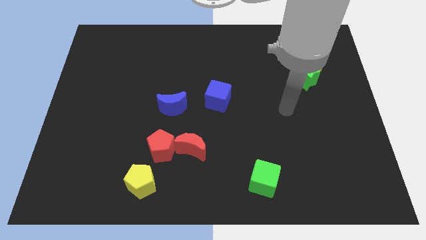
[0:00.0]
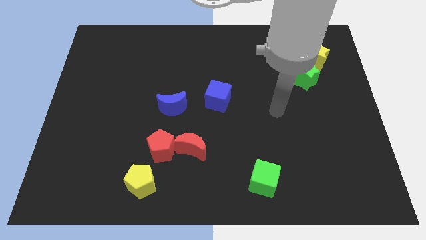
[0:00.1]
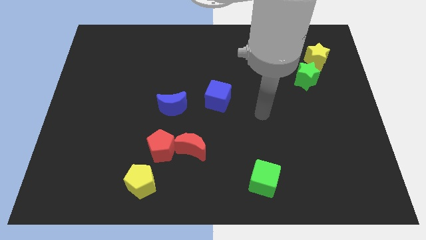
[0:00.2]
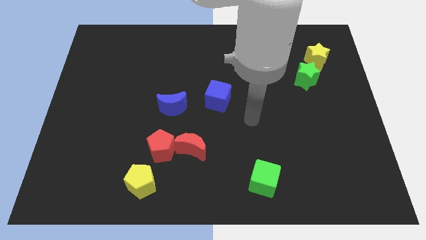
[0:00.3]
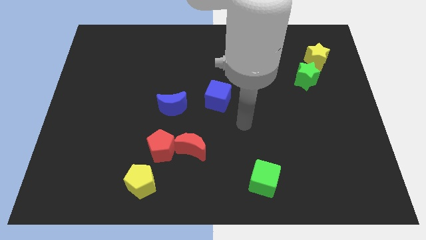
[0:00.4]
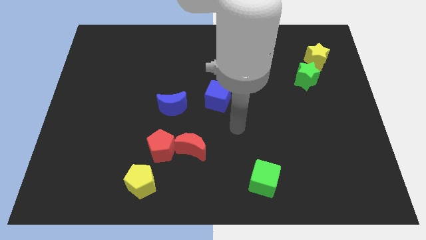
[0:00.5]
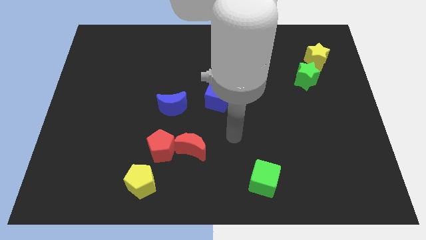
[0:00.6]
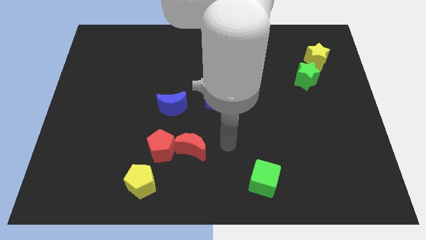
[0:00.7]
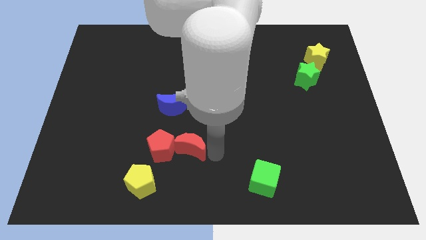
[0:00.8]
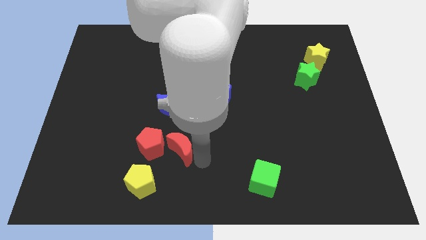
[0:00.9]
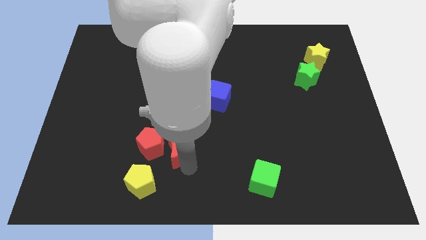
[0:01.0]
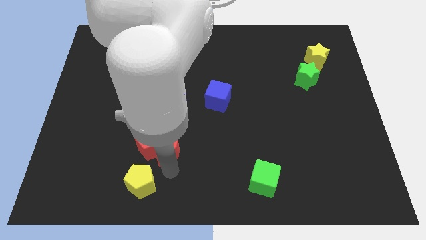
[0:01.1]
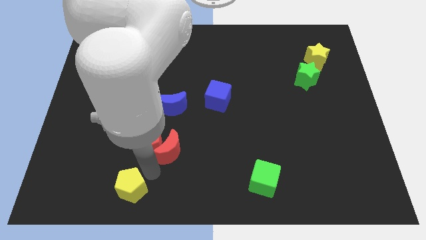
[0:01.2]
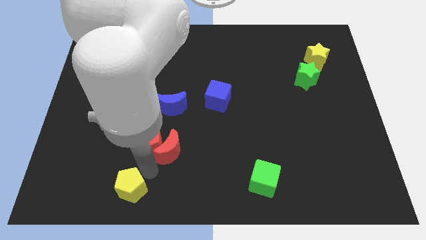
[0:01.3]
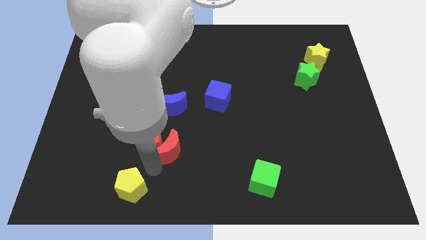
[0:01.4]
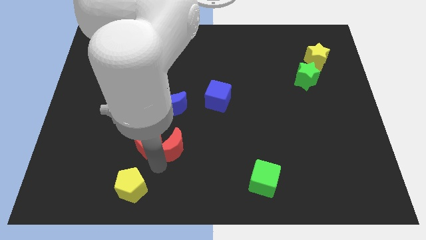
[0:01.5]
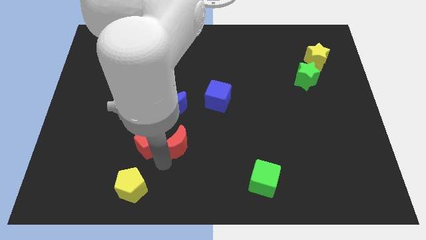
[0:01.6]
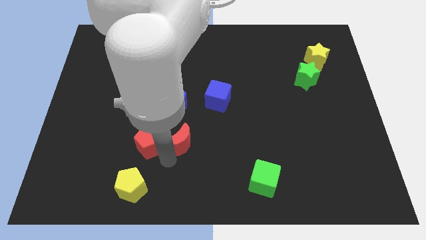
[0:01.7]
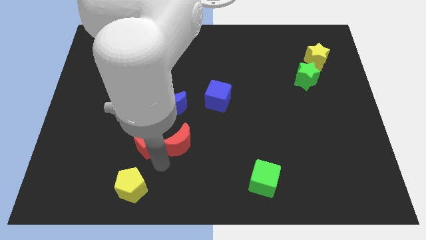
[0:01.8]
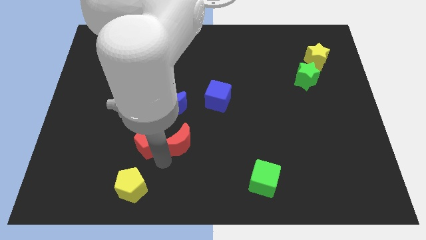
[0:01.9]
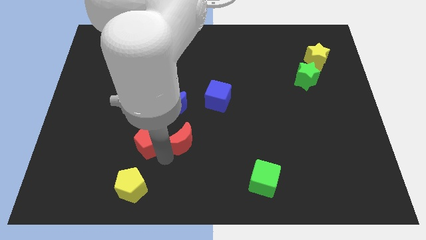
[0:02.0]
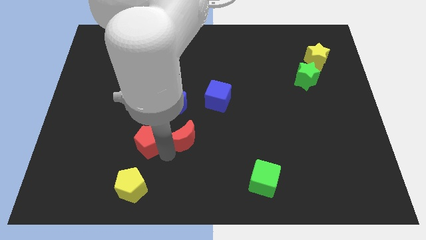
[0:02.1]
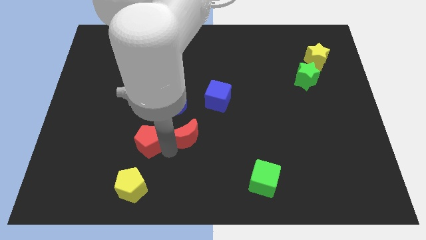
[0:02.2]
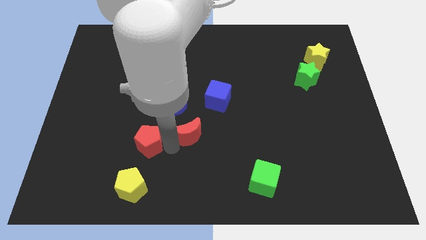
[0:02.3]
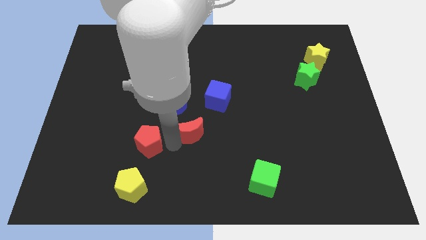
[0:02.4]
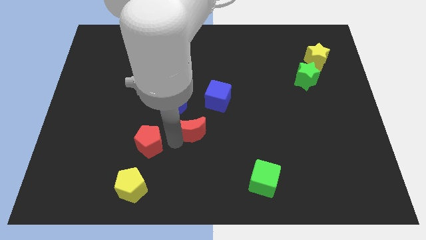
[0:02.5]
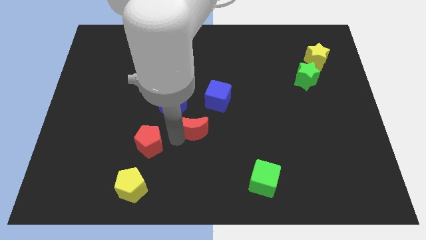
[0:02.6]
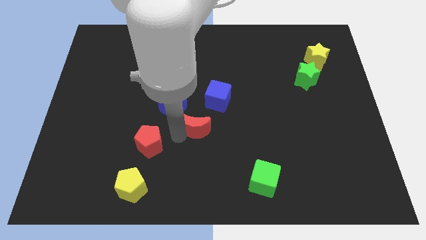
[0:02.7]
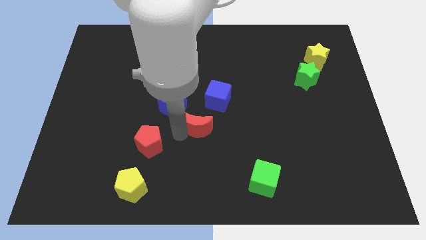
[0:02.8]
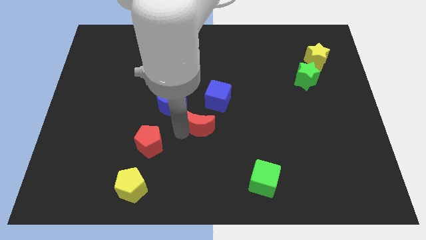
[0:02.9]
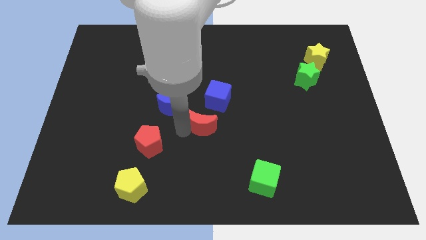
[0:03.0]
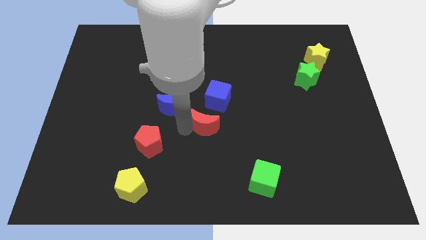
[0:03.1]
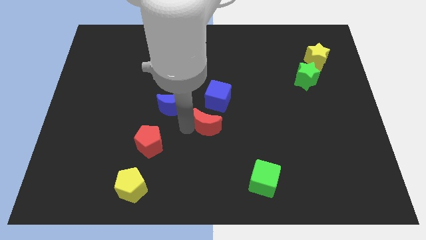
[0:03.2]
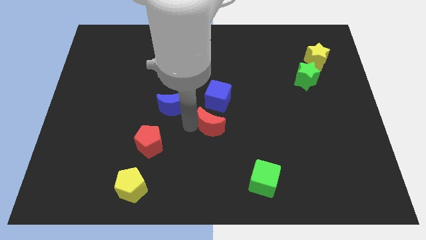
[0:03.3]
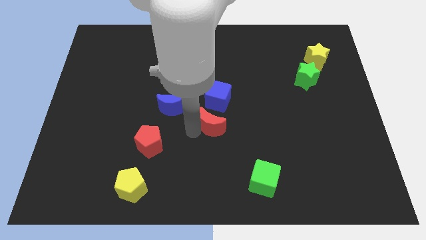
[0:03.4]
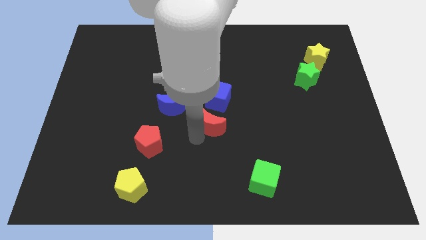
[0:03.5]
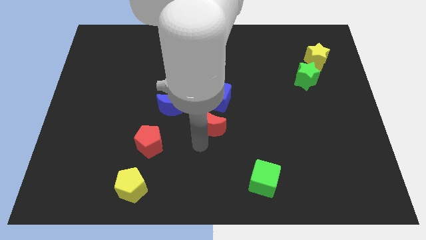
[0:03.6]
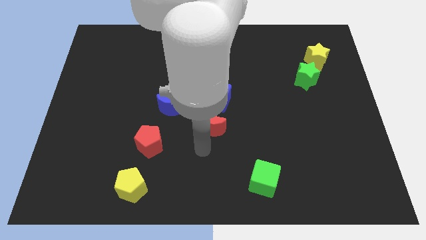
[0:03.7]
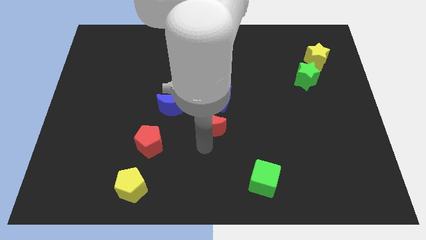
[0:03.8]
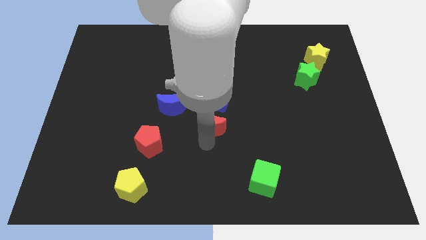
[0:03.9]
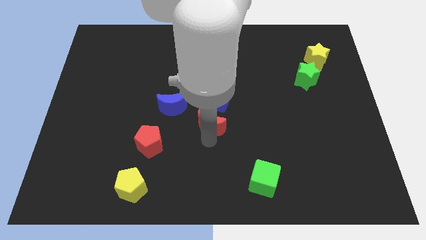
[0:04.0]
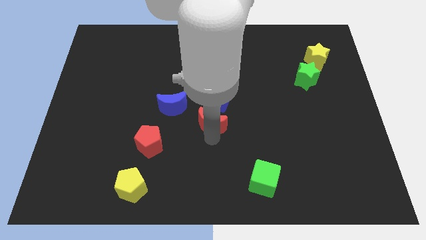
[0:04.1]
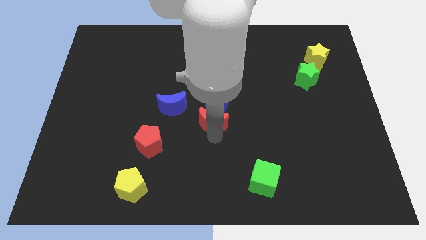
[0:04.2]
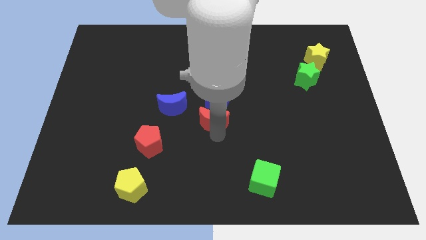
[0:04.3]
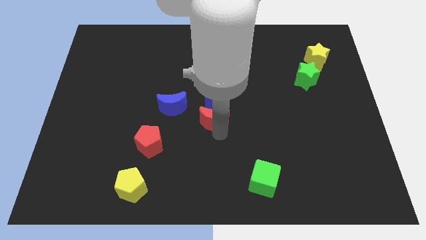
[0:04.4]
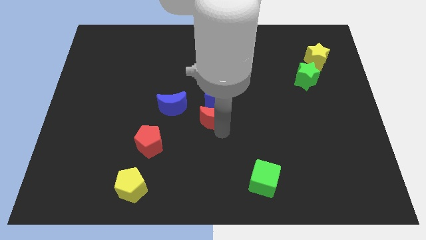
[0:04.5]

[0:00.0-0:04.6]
slide the red moon next to the blue cube

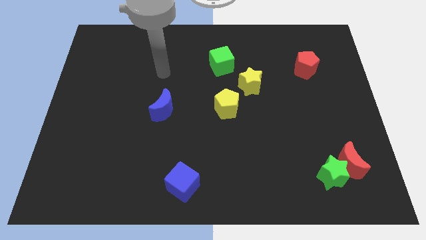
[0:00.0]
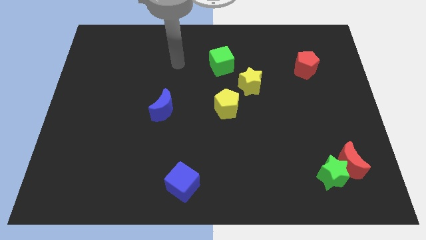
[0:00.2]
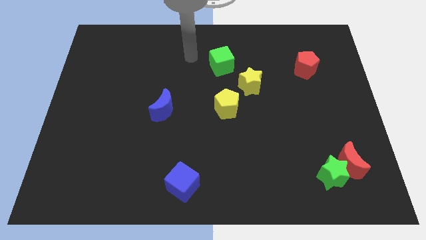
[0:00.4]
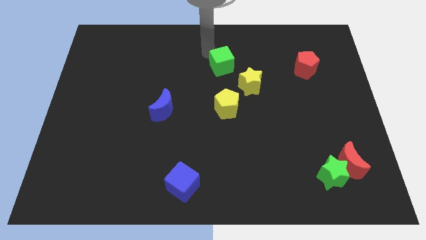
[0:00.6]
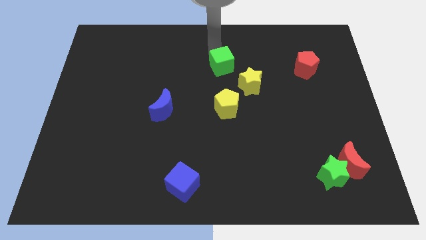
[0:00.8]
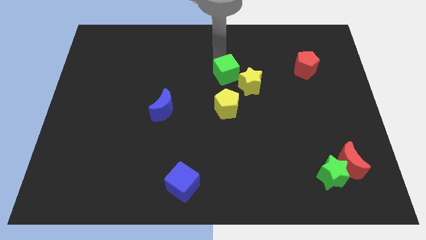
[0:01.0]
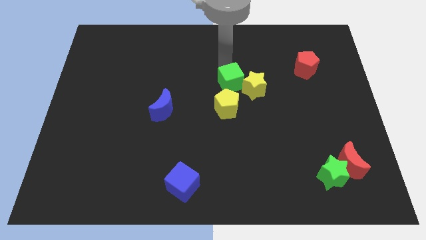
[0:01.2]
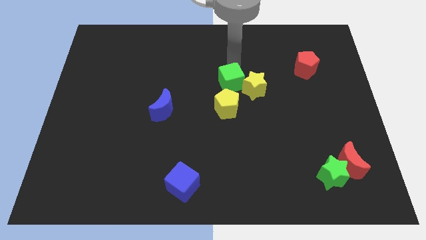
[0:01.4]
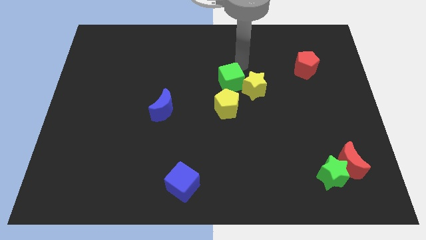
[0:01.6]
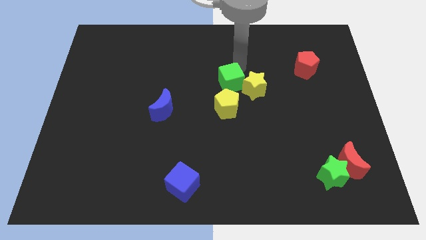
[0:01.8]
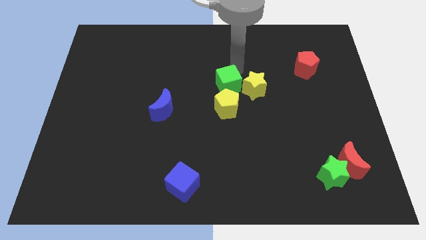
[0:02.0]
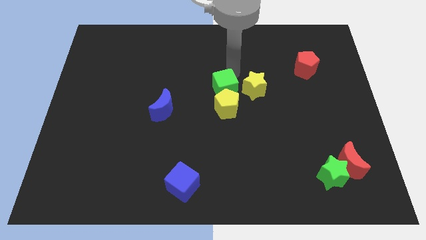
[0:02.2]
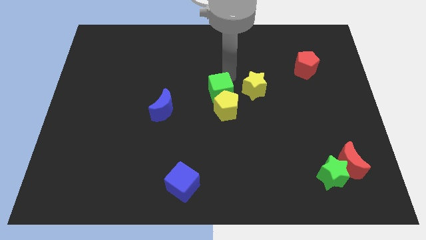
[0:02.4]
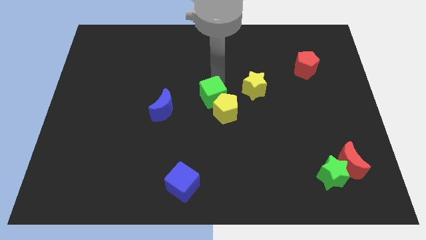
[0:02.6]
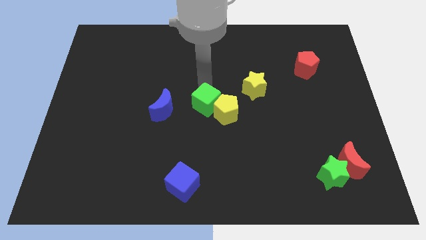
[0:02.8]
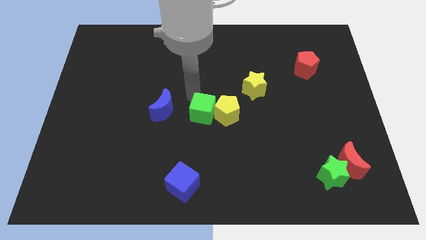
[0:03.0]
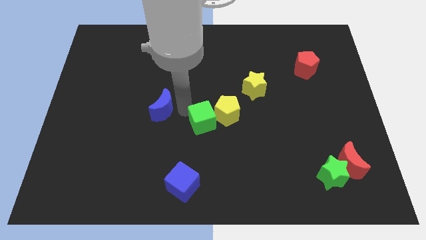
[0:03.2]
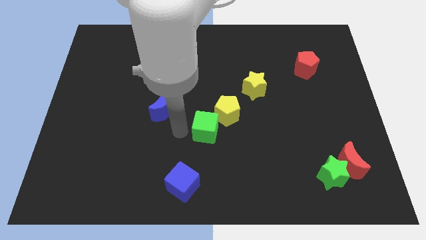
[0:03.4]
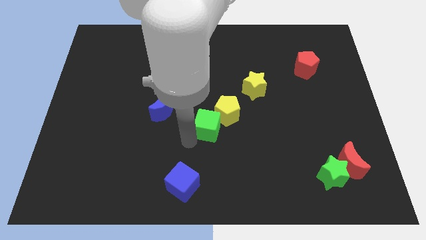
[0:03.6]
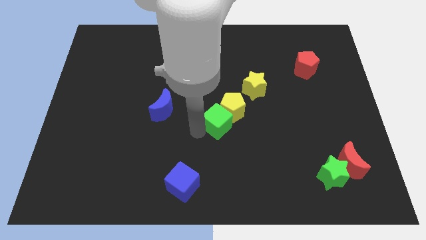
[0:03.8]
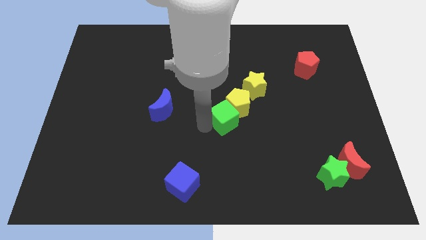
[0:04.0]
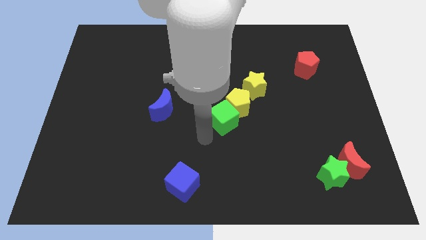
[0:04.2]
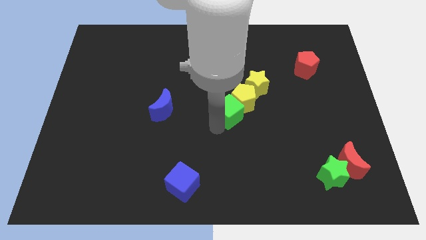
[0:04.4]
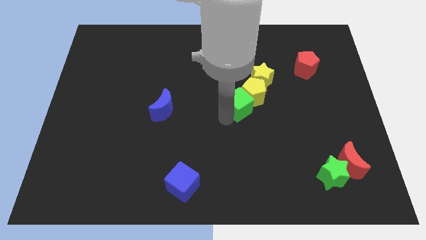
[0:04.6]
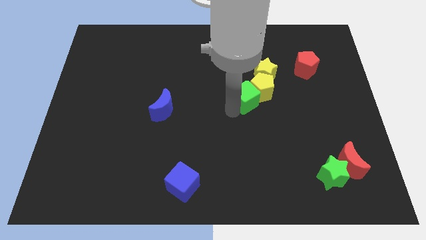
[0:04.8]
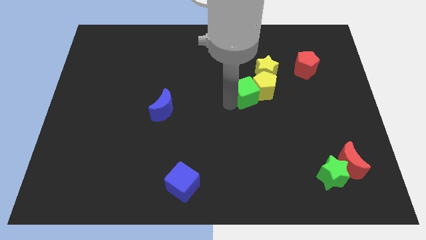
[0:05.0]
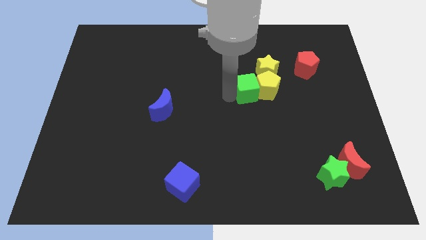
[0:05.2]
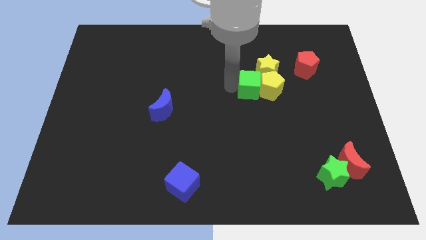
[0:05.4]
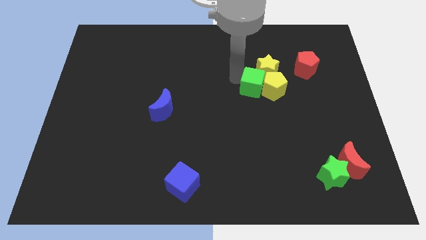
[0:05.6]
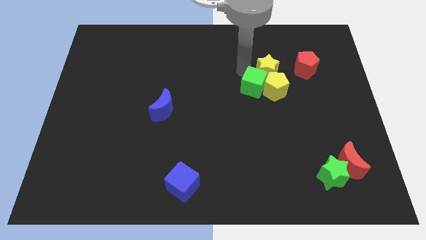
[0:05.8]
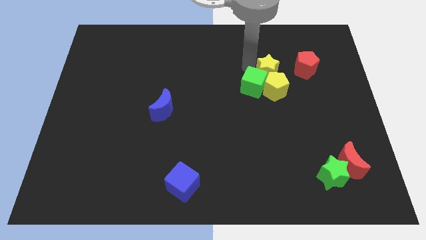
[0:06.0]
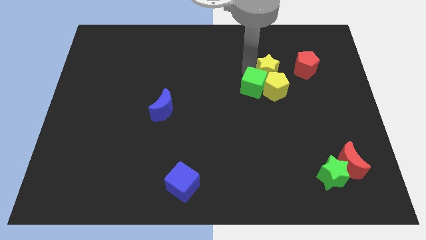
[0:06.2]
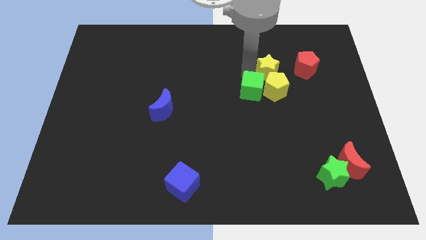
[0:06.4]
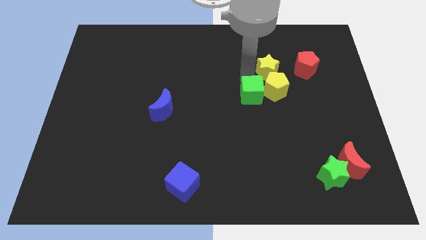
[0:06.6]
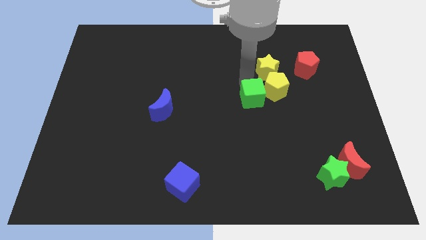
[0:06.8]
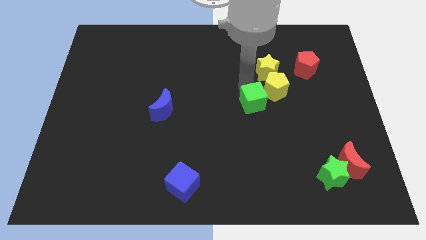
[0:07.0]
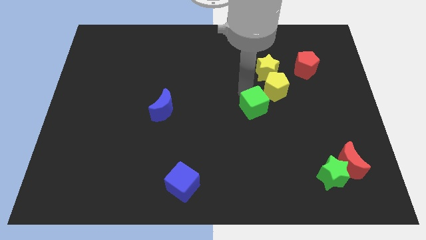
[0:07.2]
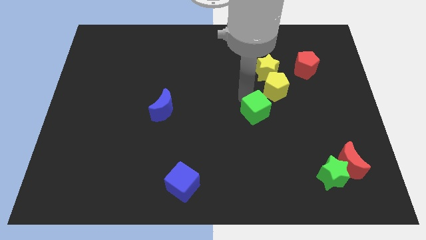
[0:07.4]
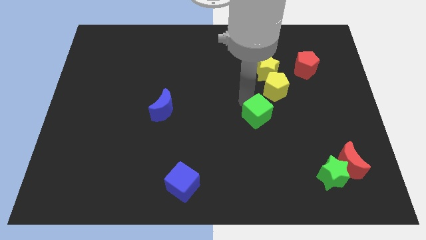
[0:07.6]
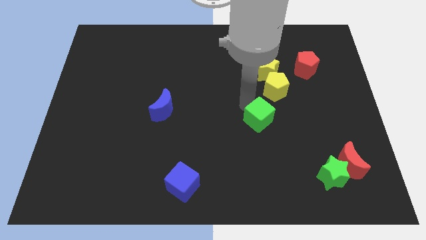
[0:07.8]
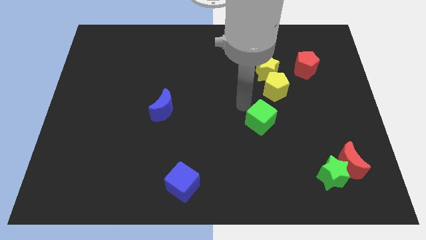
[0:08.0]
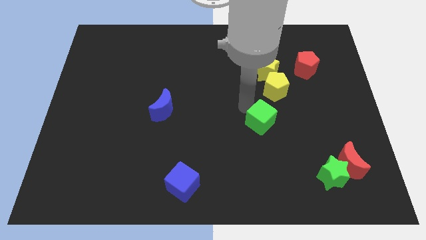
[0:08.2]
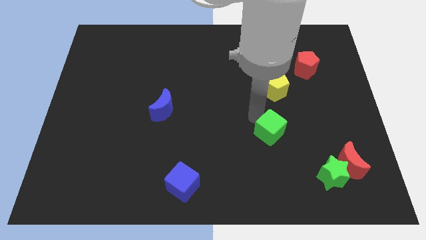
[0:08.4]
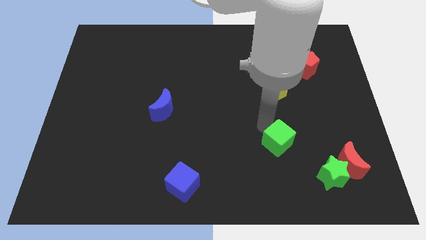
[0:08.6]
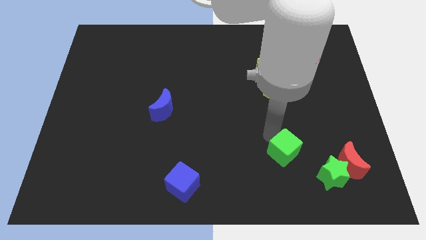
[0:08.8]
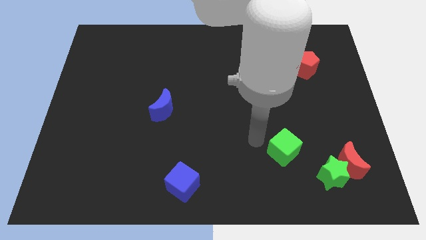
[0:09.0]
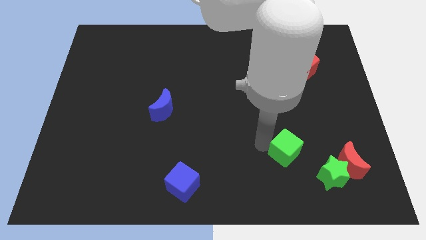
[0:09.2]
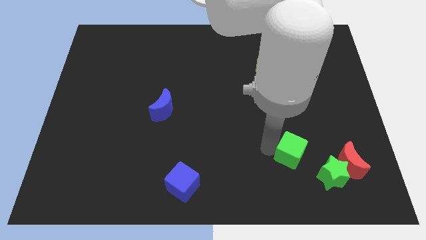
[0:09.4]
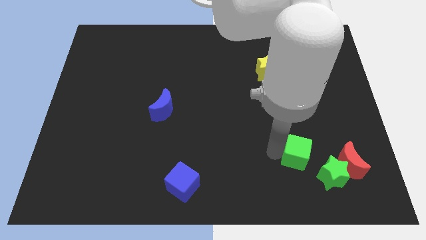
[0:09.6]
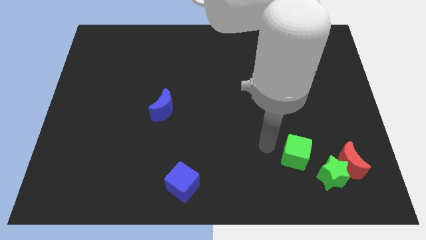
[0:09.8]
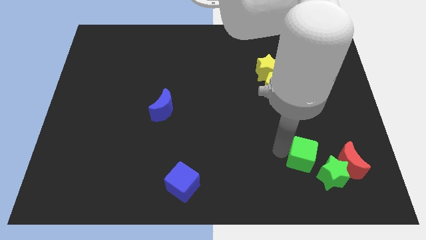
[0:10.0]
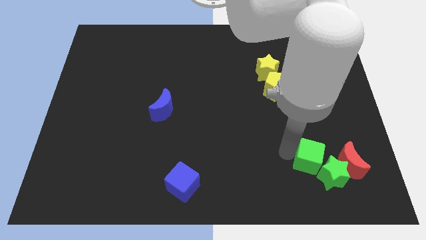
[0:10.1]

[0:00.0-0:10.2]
push the green cube next to the green star
